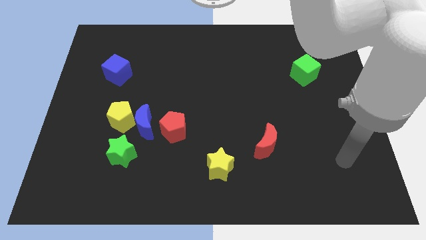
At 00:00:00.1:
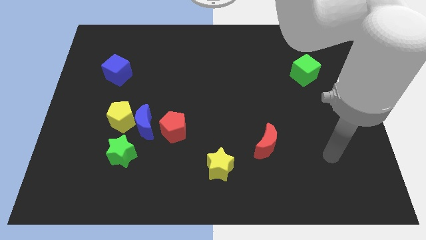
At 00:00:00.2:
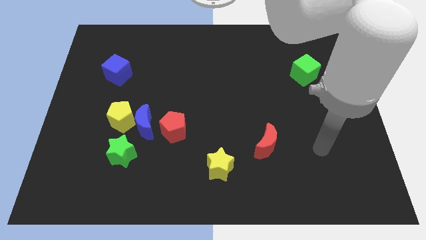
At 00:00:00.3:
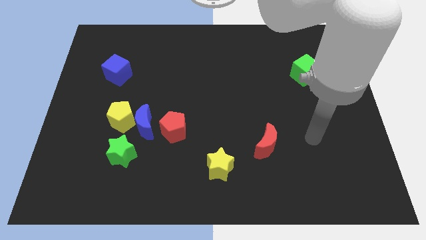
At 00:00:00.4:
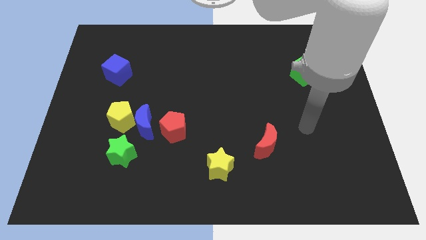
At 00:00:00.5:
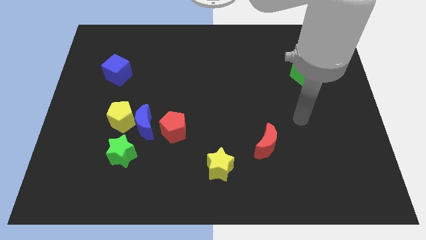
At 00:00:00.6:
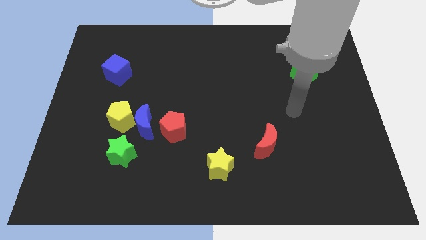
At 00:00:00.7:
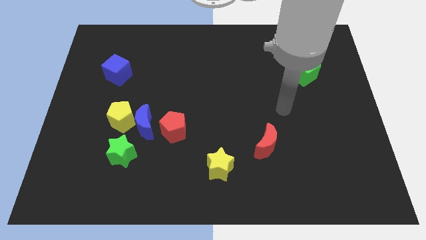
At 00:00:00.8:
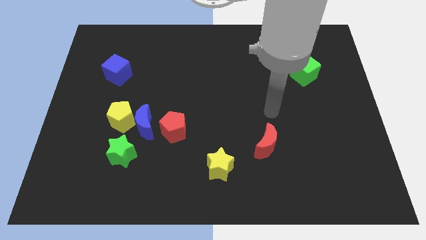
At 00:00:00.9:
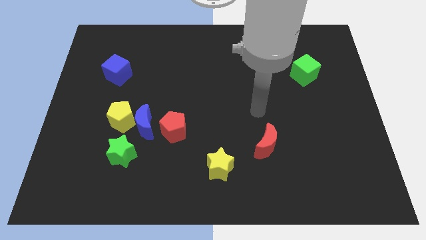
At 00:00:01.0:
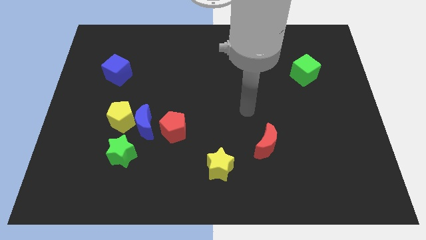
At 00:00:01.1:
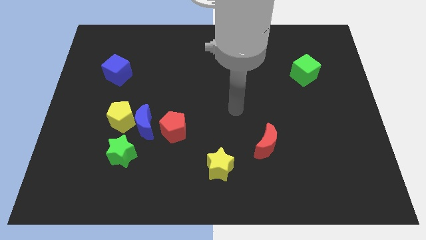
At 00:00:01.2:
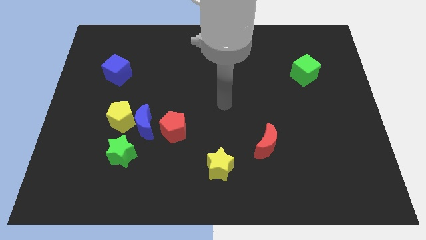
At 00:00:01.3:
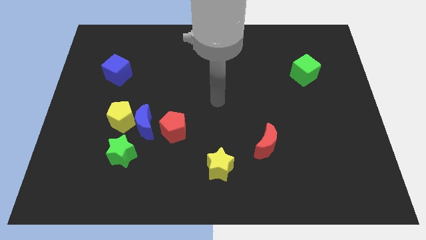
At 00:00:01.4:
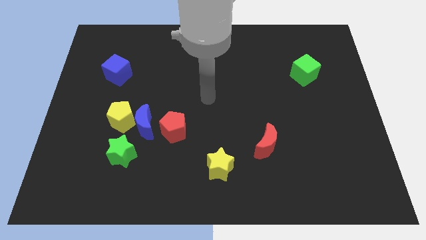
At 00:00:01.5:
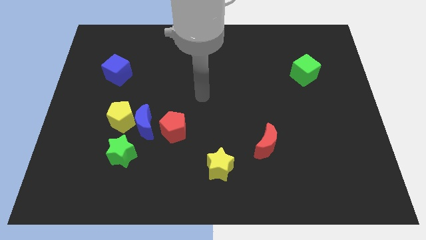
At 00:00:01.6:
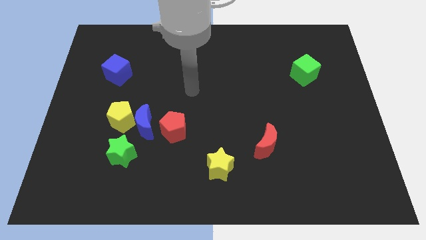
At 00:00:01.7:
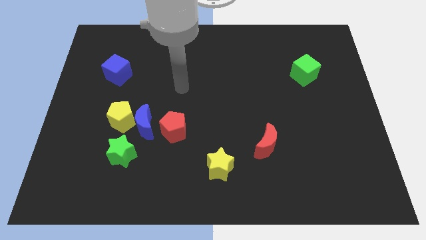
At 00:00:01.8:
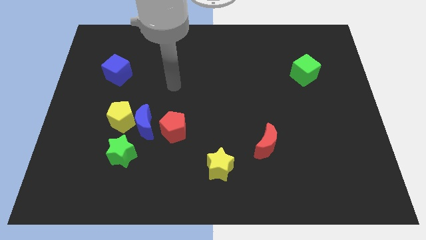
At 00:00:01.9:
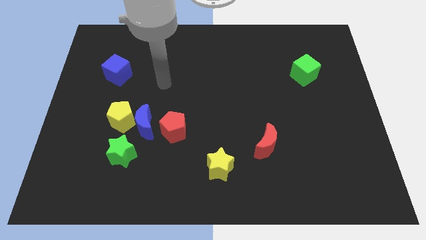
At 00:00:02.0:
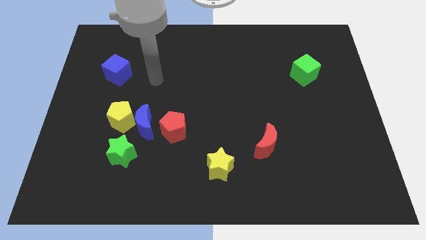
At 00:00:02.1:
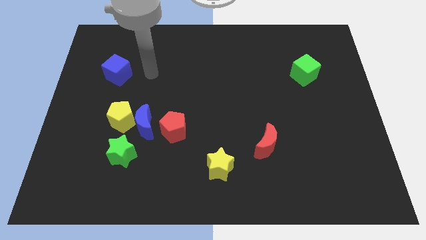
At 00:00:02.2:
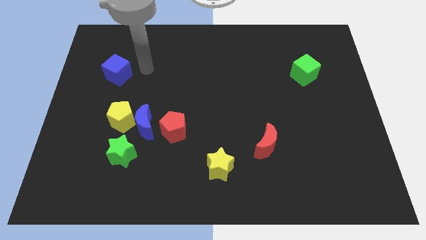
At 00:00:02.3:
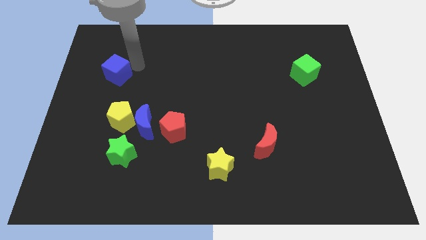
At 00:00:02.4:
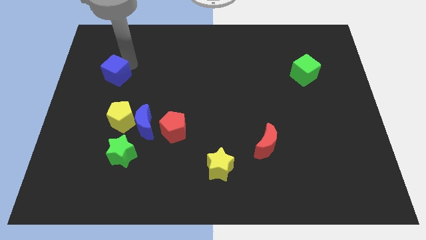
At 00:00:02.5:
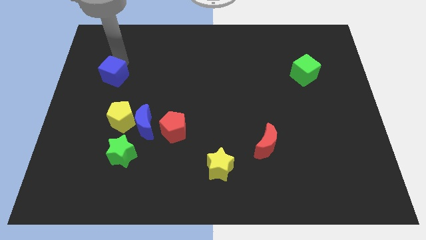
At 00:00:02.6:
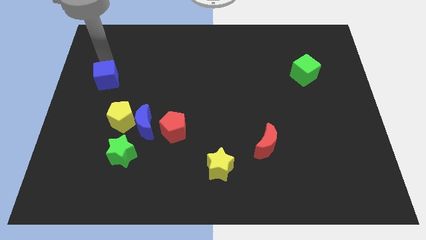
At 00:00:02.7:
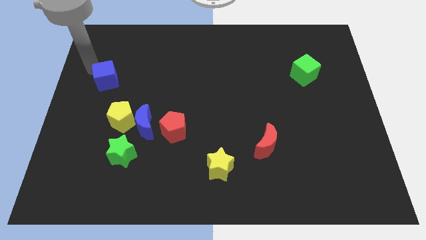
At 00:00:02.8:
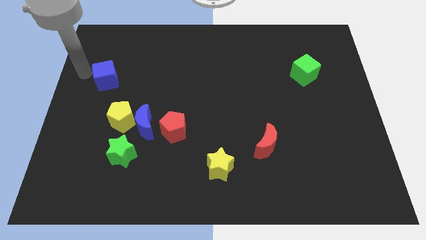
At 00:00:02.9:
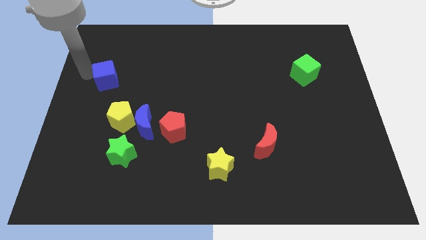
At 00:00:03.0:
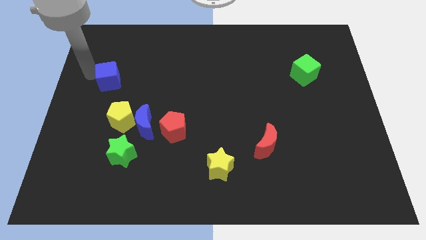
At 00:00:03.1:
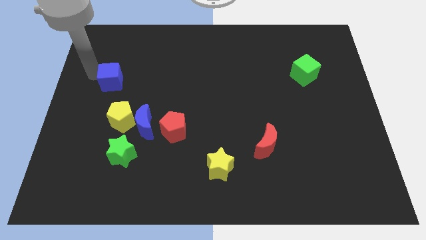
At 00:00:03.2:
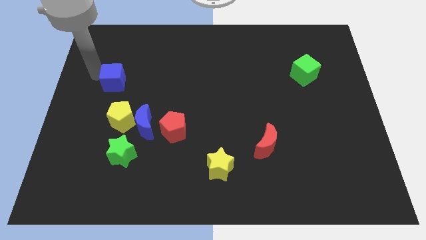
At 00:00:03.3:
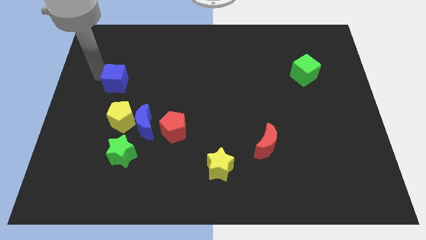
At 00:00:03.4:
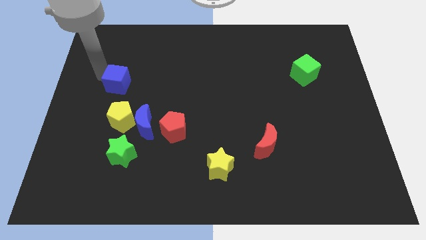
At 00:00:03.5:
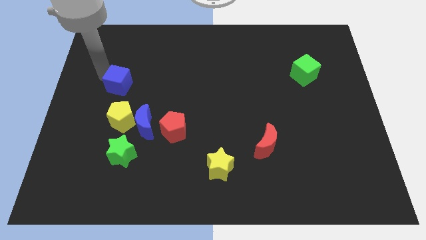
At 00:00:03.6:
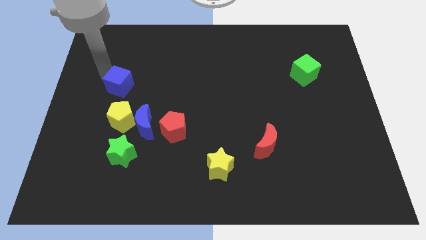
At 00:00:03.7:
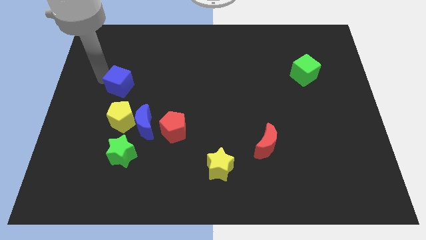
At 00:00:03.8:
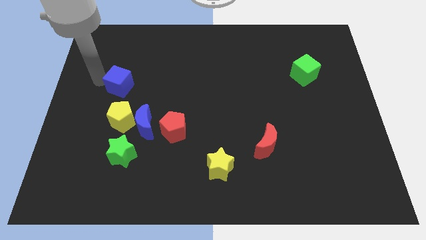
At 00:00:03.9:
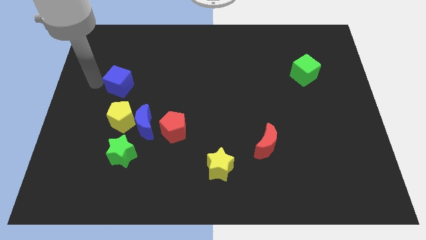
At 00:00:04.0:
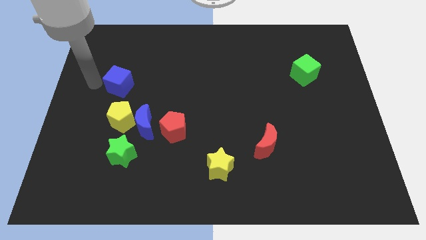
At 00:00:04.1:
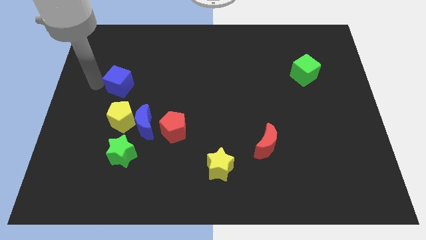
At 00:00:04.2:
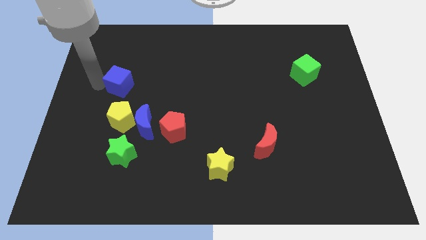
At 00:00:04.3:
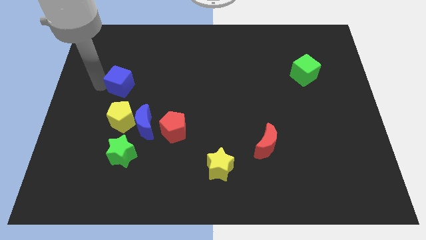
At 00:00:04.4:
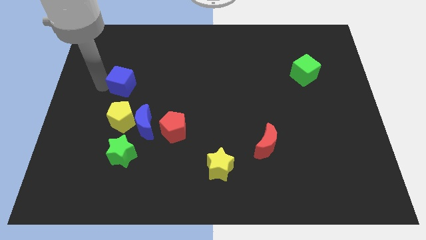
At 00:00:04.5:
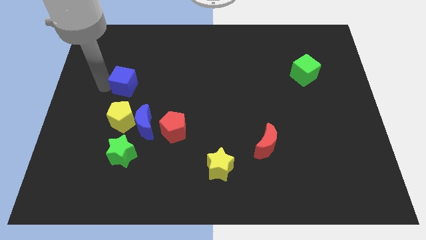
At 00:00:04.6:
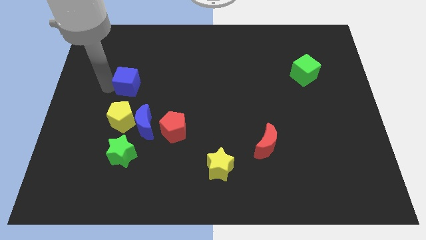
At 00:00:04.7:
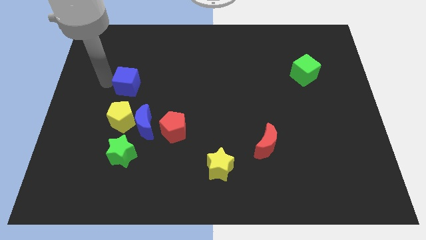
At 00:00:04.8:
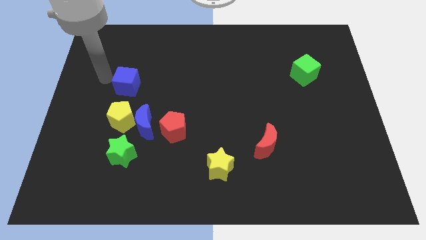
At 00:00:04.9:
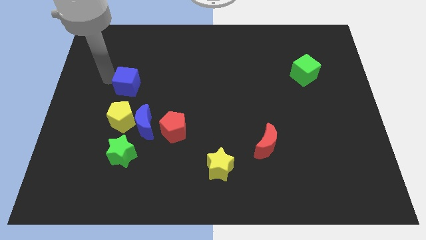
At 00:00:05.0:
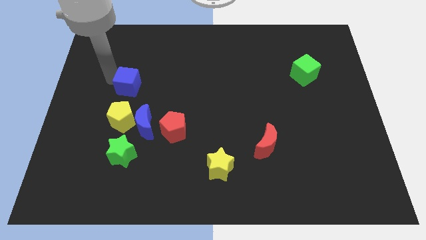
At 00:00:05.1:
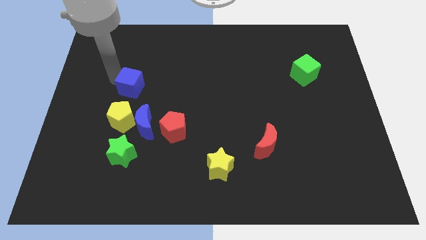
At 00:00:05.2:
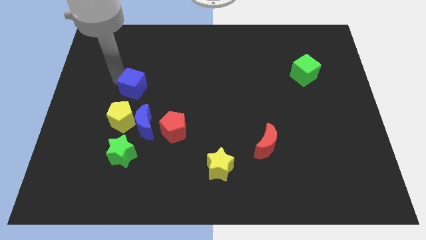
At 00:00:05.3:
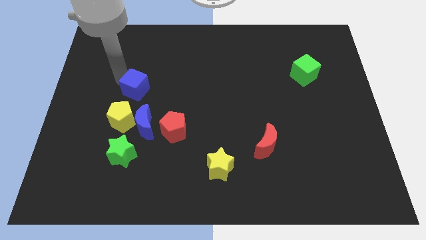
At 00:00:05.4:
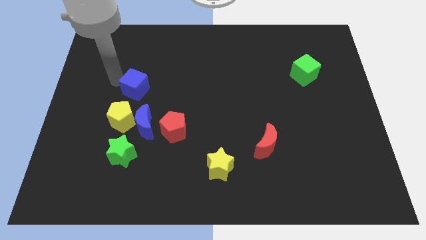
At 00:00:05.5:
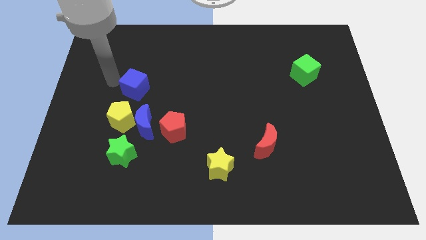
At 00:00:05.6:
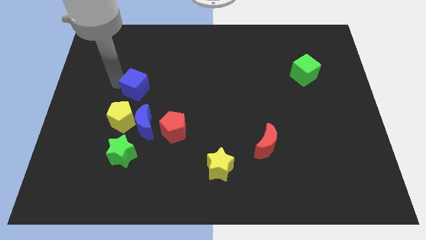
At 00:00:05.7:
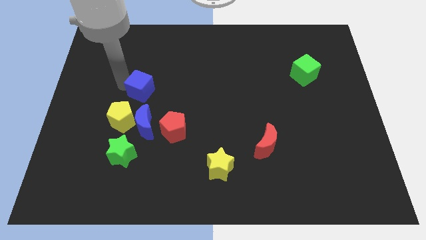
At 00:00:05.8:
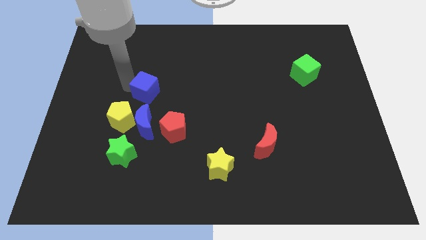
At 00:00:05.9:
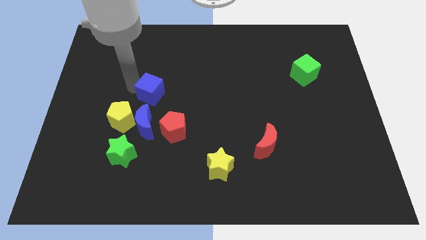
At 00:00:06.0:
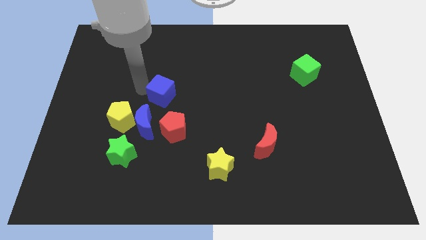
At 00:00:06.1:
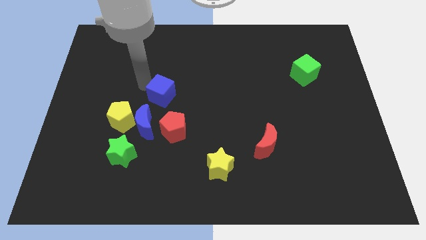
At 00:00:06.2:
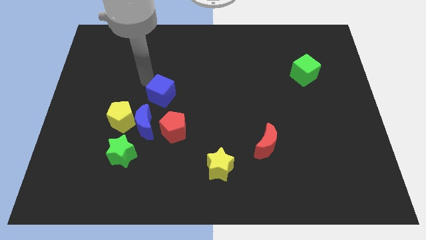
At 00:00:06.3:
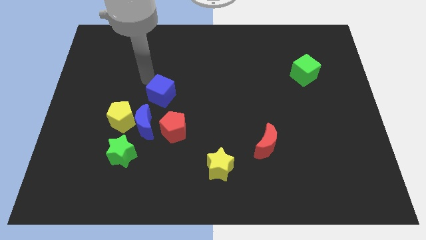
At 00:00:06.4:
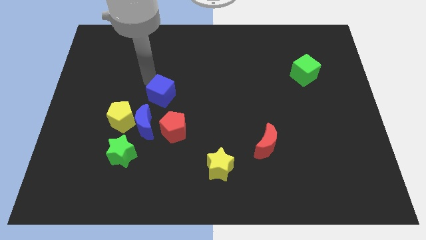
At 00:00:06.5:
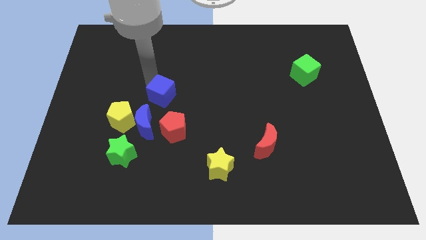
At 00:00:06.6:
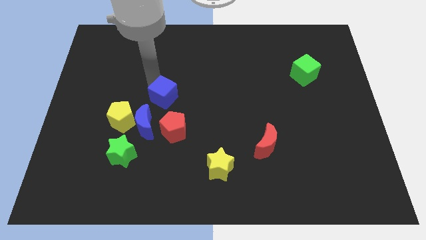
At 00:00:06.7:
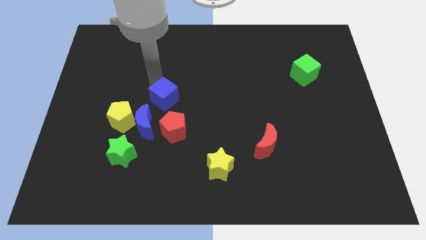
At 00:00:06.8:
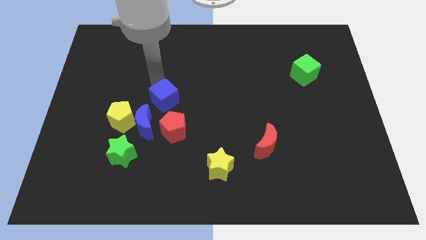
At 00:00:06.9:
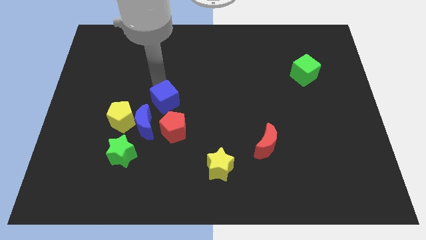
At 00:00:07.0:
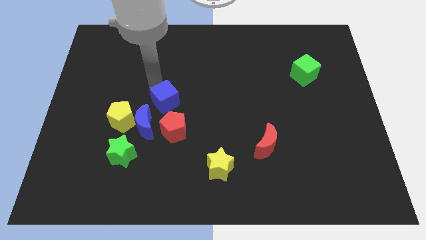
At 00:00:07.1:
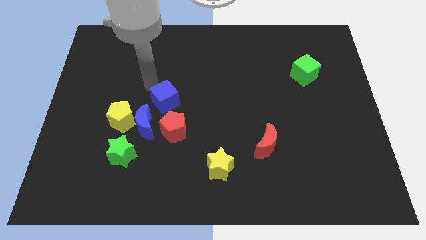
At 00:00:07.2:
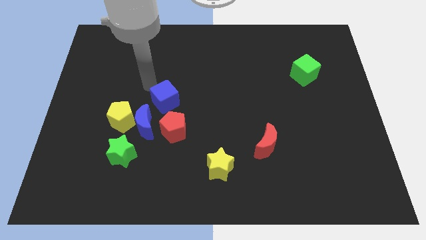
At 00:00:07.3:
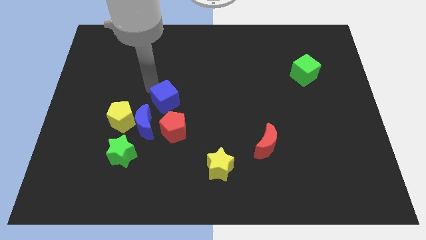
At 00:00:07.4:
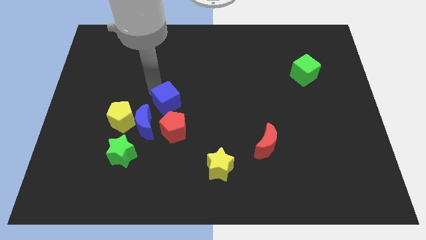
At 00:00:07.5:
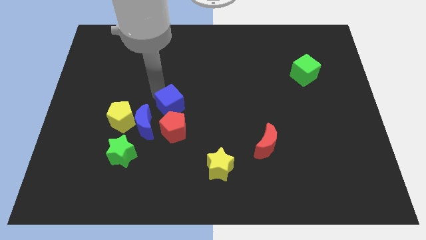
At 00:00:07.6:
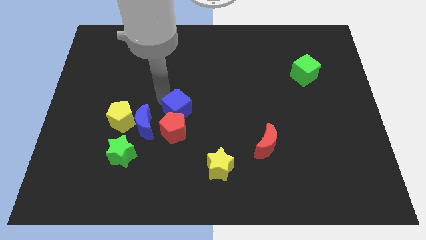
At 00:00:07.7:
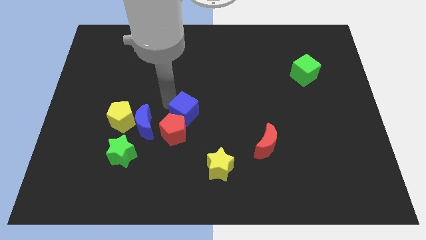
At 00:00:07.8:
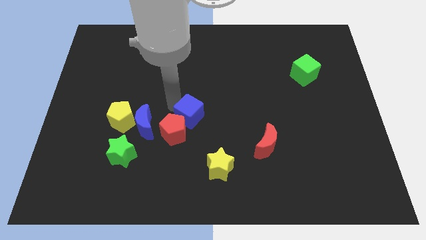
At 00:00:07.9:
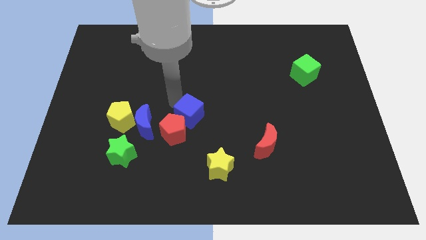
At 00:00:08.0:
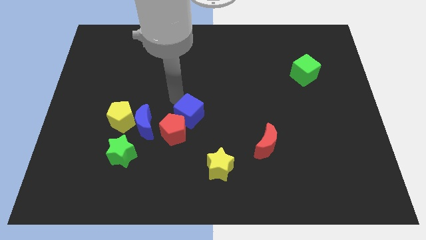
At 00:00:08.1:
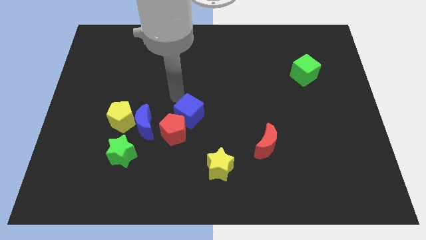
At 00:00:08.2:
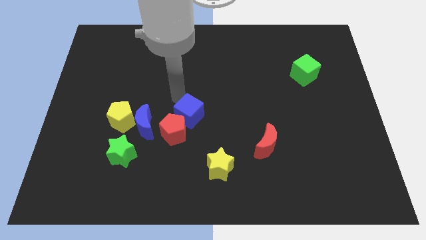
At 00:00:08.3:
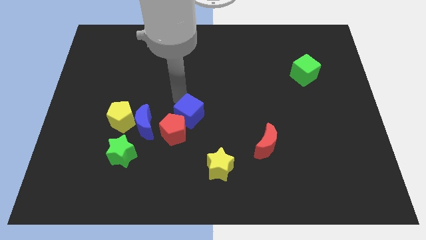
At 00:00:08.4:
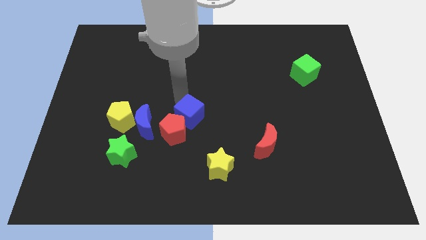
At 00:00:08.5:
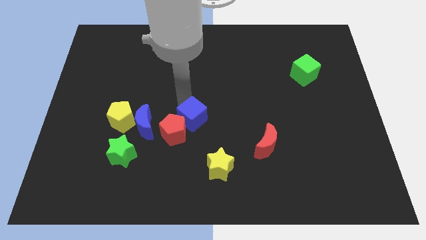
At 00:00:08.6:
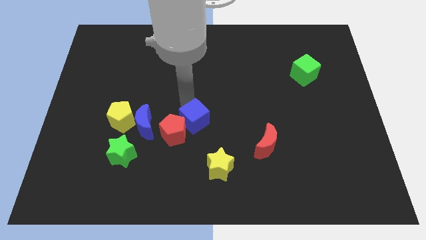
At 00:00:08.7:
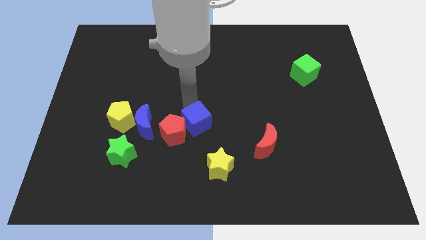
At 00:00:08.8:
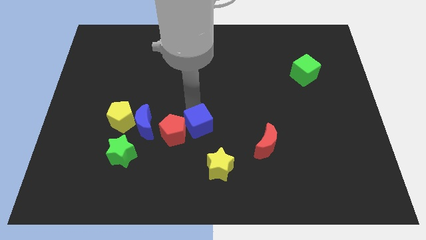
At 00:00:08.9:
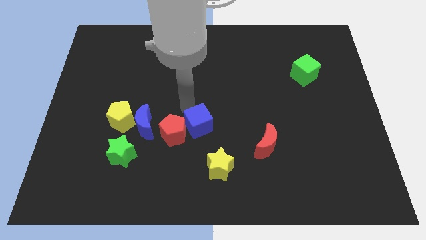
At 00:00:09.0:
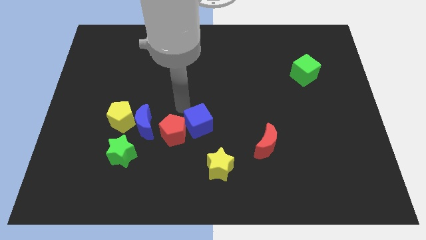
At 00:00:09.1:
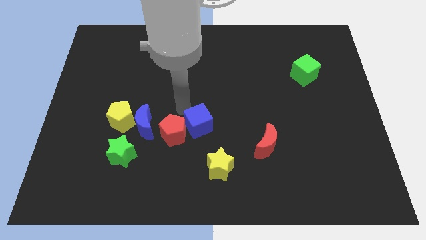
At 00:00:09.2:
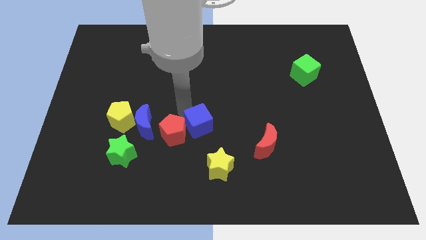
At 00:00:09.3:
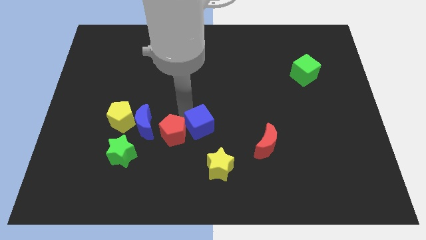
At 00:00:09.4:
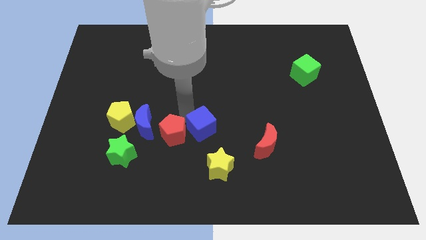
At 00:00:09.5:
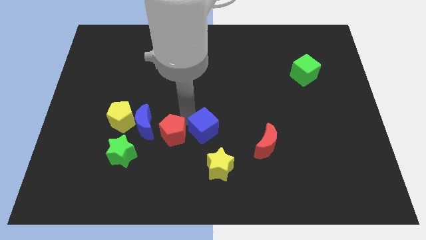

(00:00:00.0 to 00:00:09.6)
put the blue cube to the left side of the red moon
